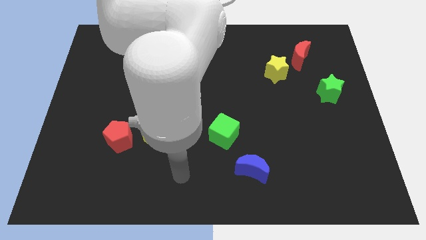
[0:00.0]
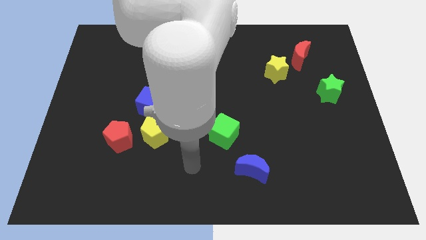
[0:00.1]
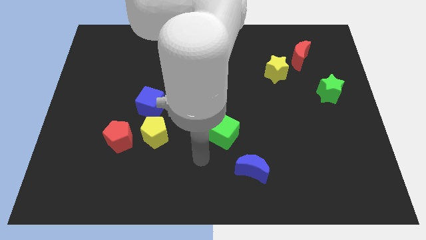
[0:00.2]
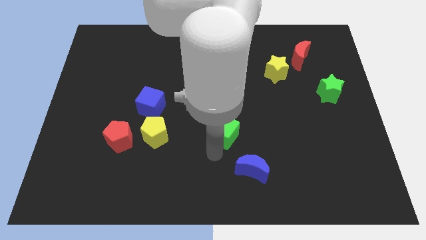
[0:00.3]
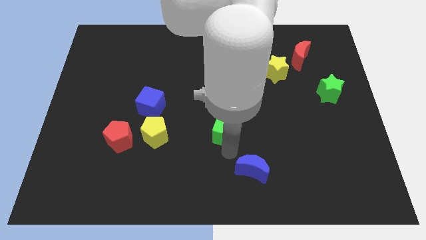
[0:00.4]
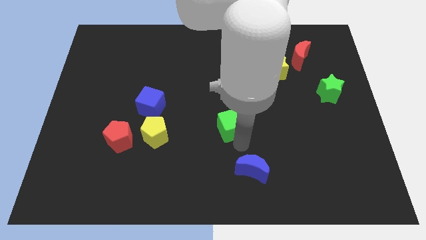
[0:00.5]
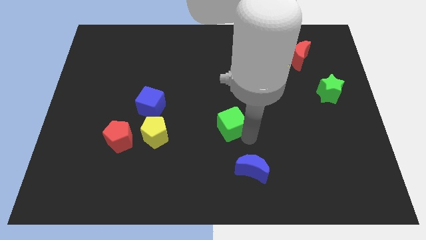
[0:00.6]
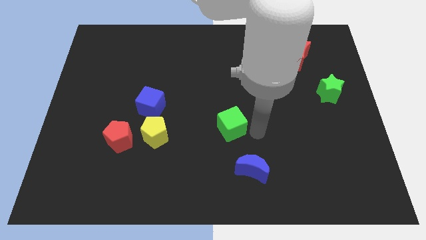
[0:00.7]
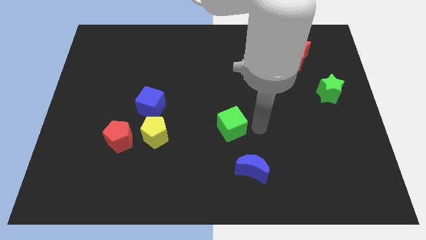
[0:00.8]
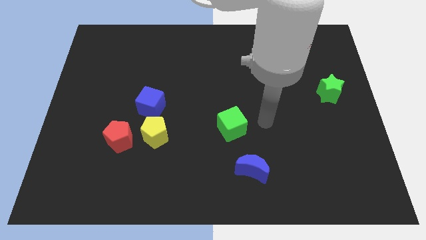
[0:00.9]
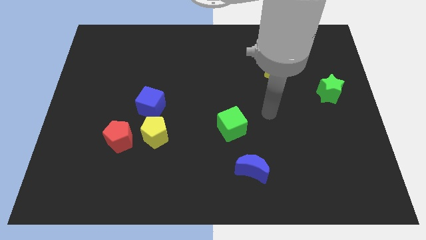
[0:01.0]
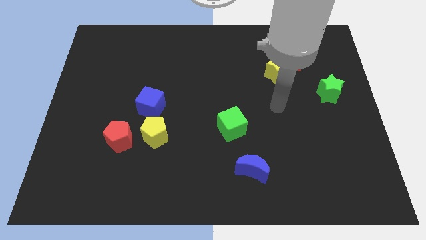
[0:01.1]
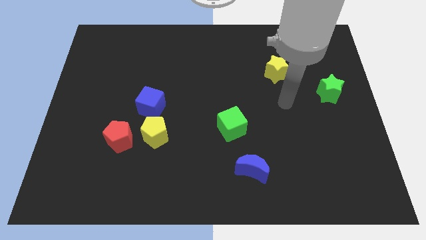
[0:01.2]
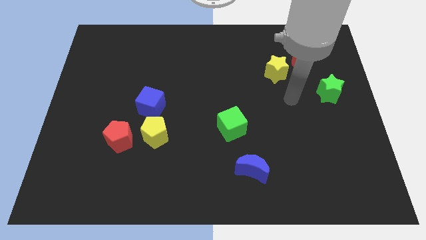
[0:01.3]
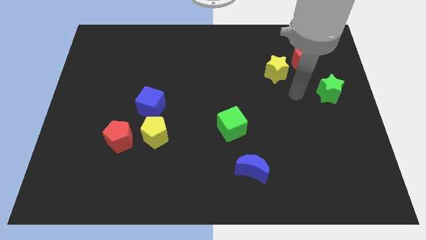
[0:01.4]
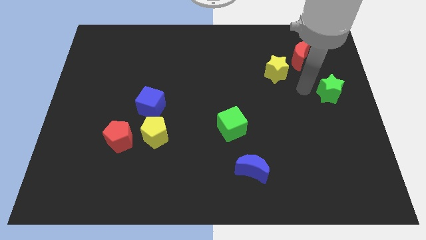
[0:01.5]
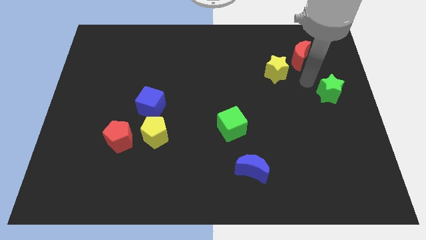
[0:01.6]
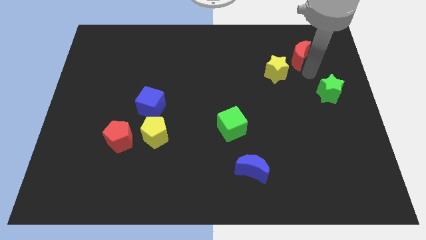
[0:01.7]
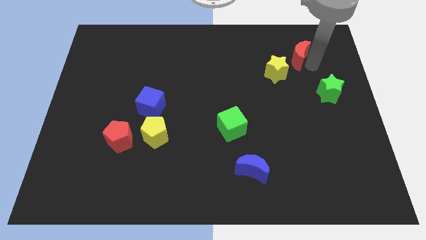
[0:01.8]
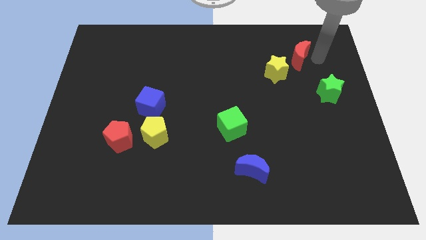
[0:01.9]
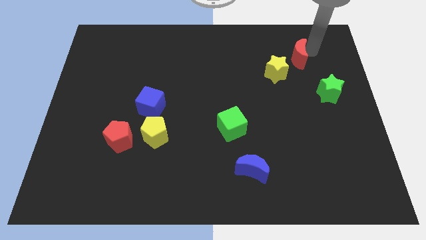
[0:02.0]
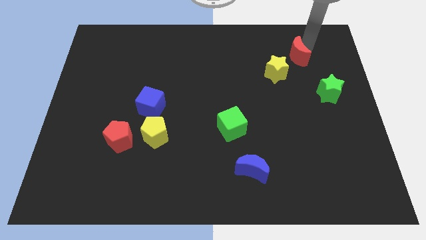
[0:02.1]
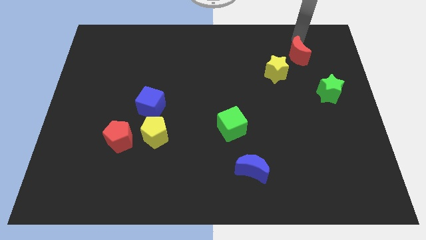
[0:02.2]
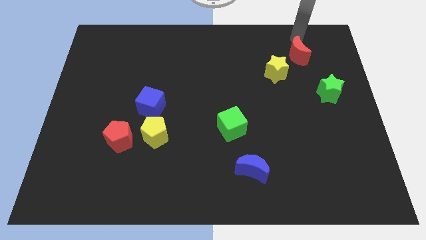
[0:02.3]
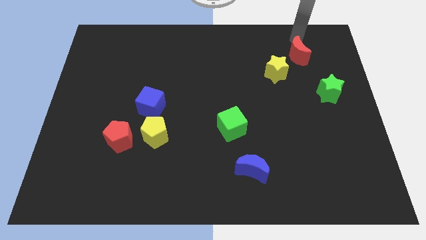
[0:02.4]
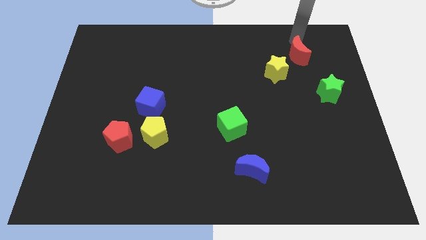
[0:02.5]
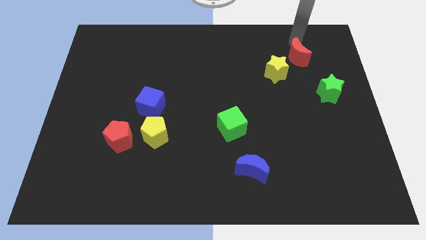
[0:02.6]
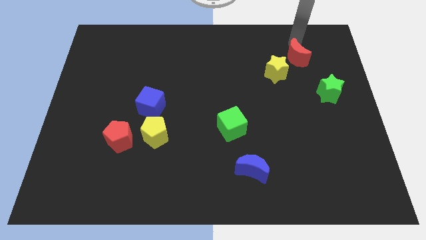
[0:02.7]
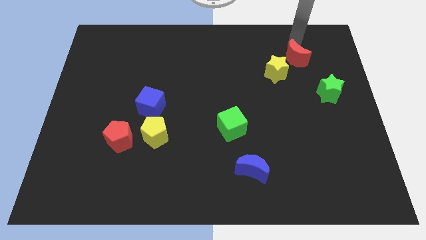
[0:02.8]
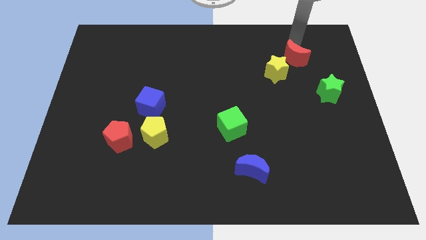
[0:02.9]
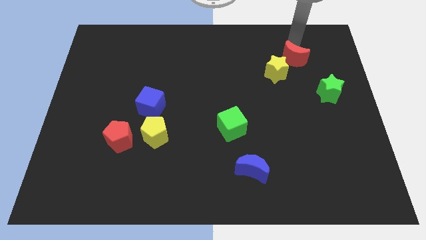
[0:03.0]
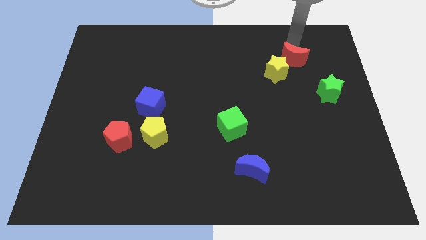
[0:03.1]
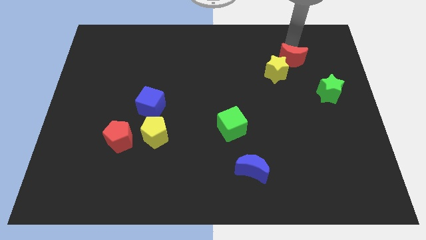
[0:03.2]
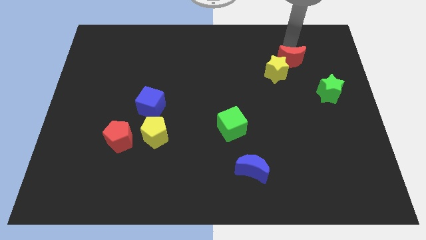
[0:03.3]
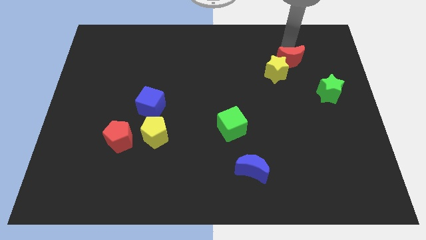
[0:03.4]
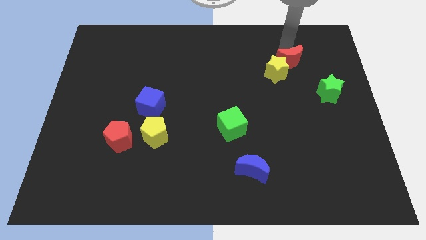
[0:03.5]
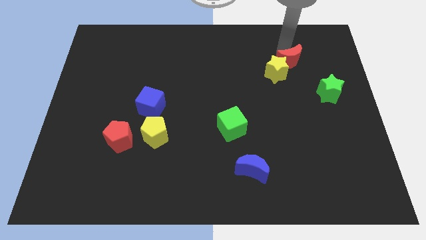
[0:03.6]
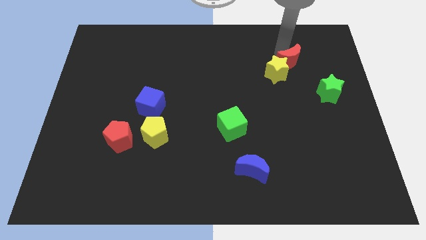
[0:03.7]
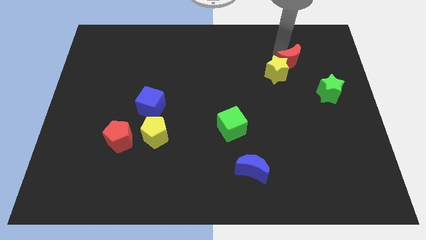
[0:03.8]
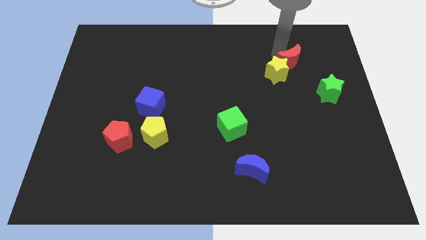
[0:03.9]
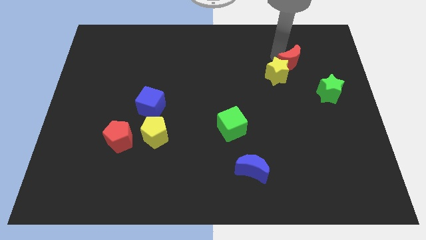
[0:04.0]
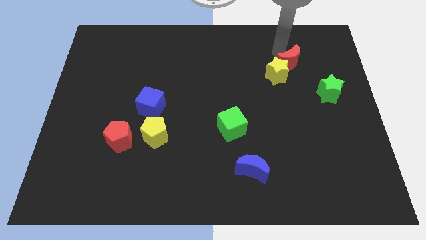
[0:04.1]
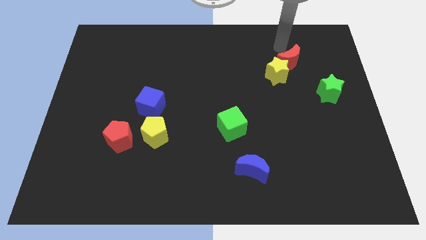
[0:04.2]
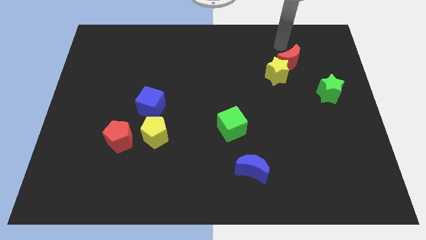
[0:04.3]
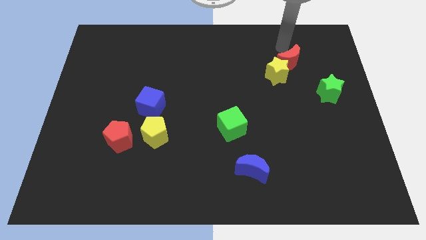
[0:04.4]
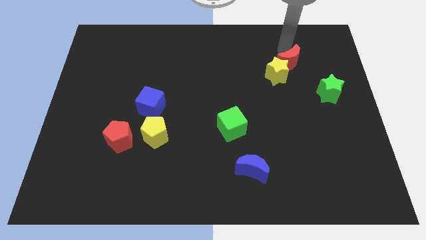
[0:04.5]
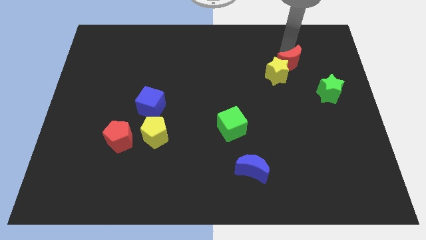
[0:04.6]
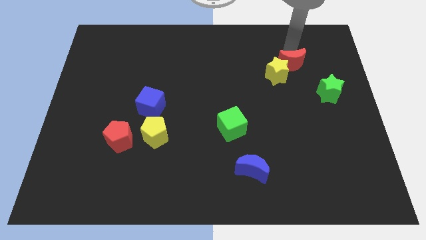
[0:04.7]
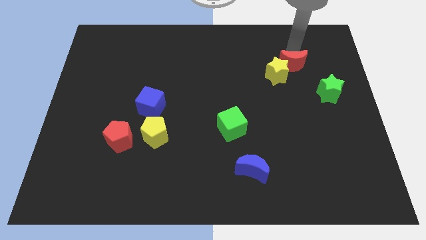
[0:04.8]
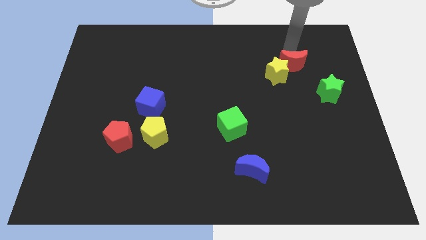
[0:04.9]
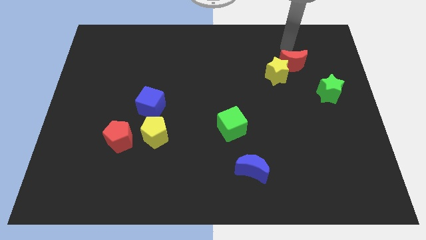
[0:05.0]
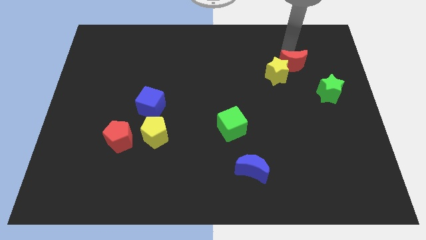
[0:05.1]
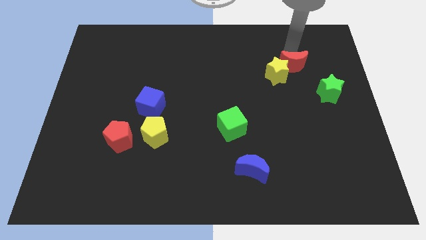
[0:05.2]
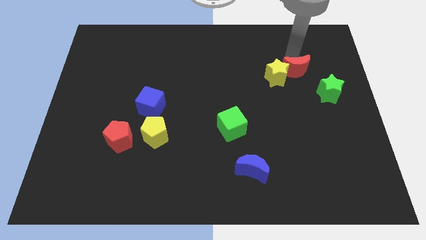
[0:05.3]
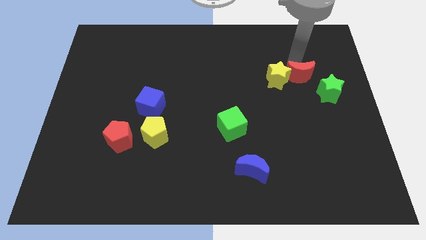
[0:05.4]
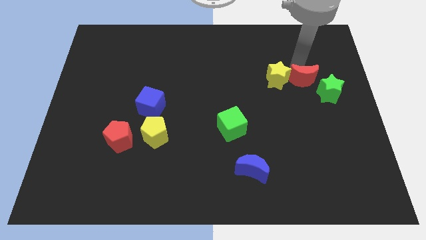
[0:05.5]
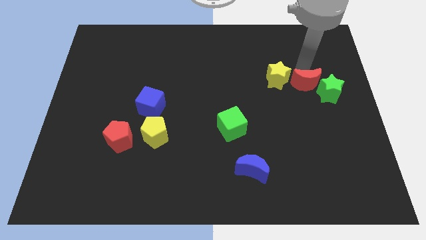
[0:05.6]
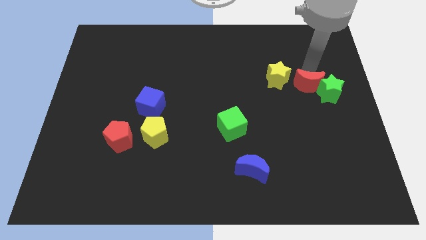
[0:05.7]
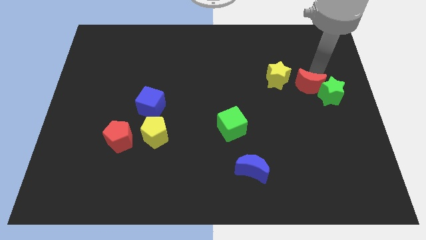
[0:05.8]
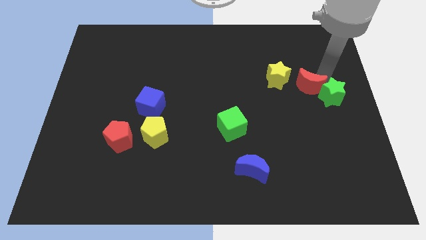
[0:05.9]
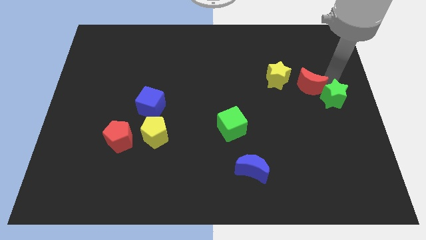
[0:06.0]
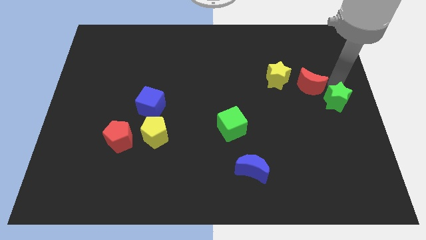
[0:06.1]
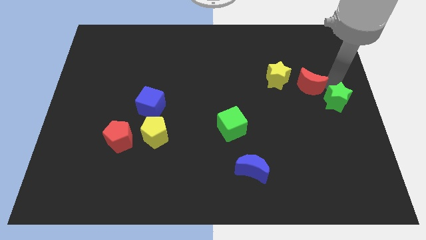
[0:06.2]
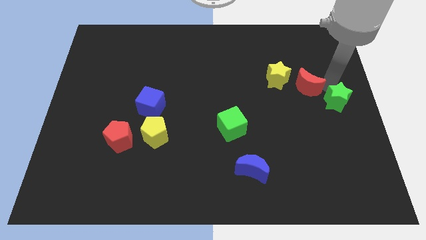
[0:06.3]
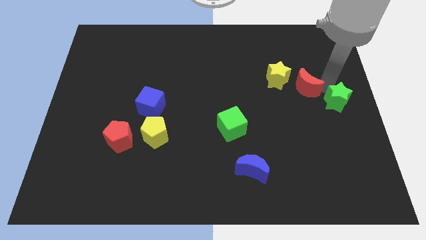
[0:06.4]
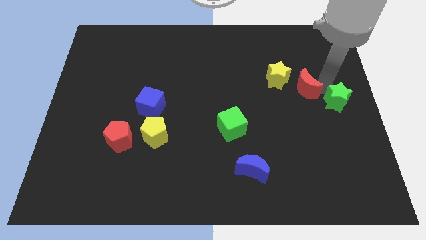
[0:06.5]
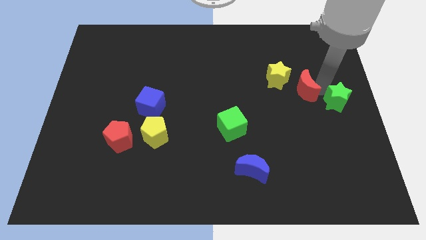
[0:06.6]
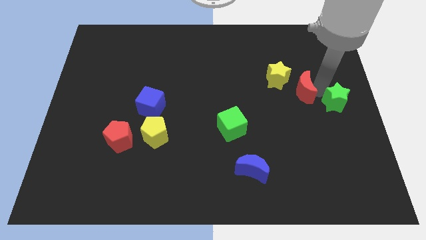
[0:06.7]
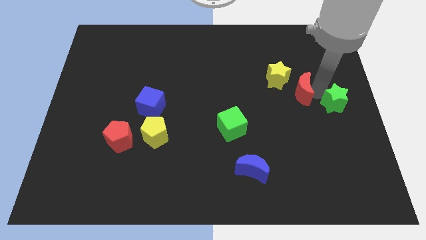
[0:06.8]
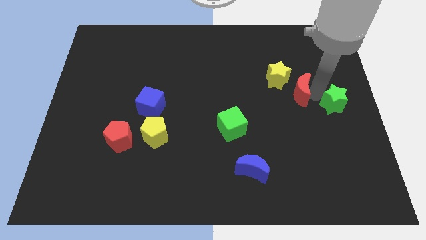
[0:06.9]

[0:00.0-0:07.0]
slide the red moon down and then to the left slightly

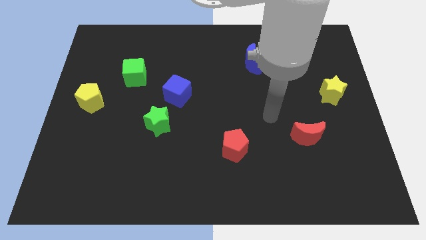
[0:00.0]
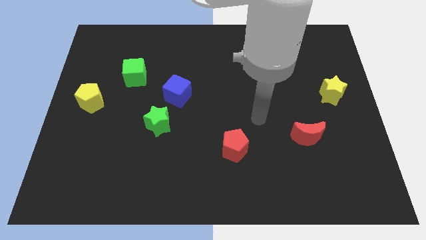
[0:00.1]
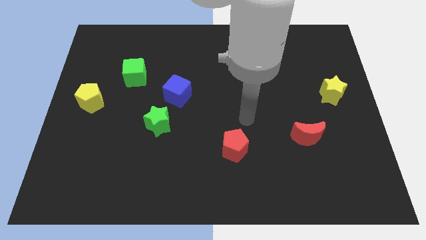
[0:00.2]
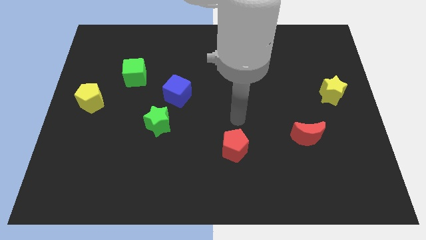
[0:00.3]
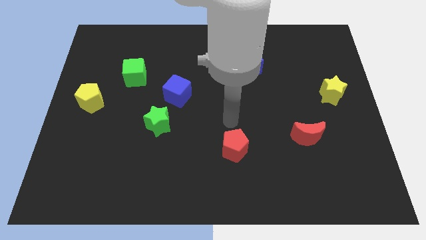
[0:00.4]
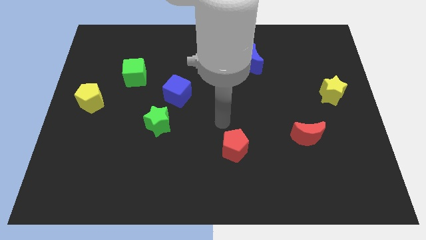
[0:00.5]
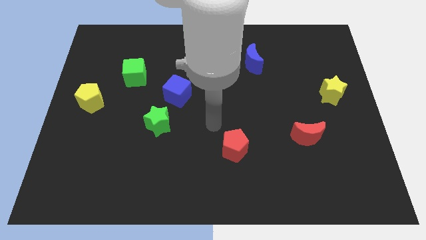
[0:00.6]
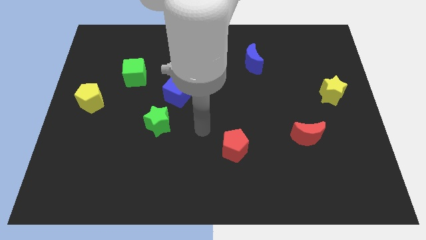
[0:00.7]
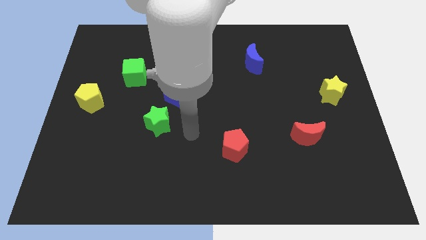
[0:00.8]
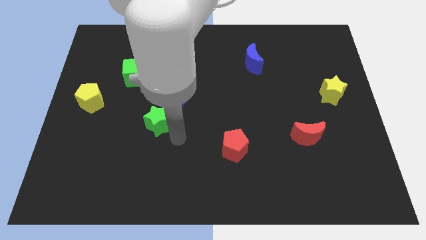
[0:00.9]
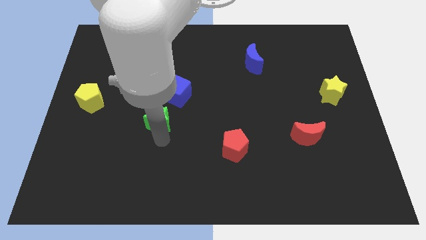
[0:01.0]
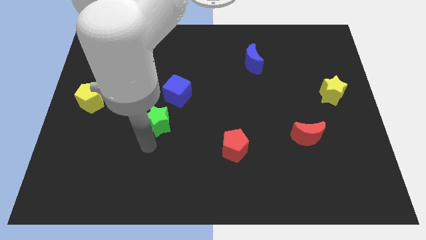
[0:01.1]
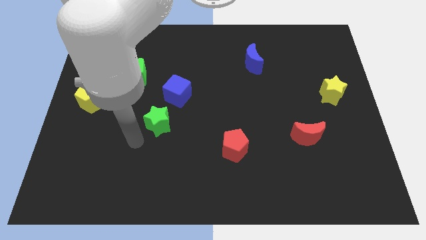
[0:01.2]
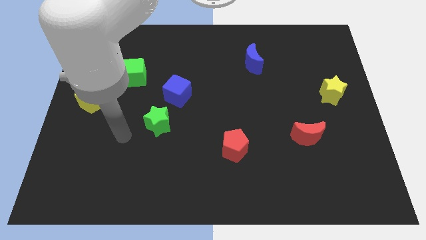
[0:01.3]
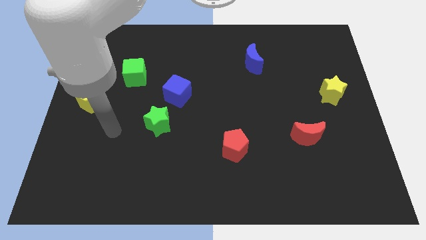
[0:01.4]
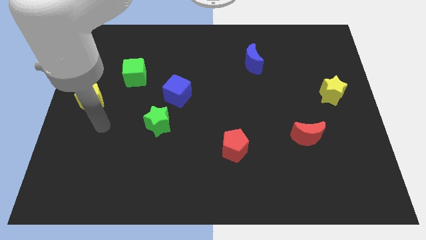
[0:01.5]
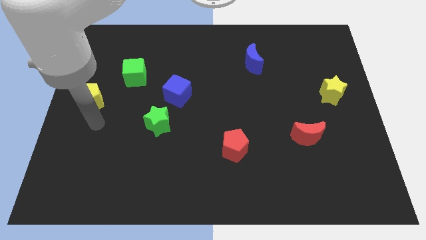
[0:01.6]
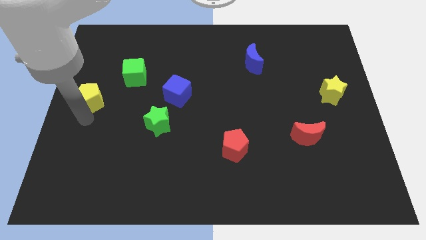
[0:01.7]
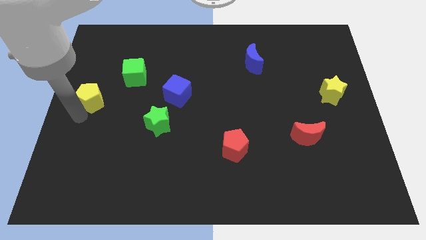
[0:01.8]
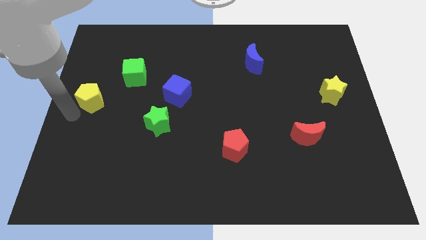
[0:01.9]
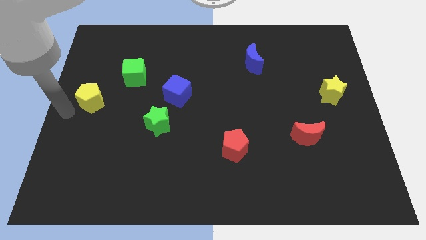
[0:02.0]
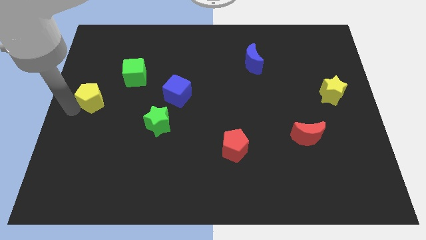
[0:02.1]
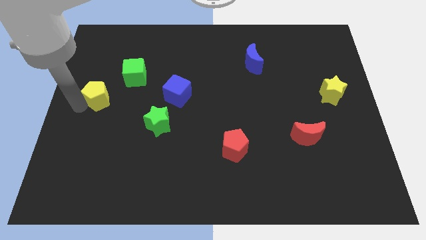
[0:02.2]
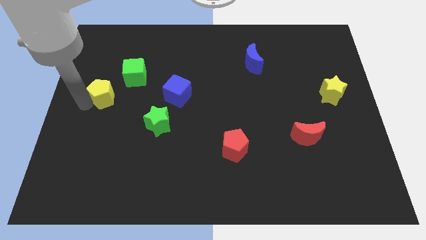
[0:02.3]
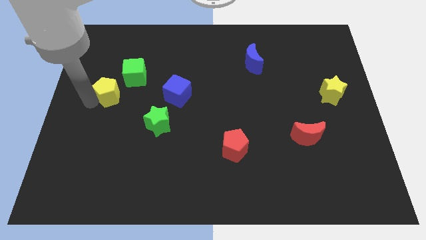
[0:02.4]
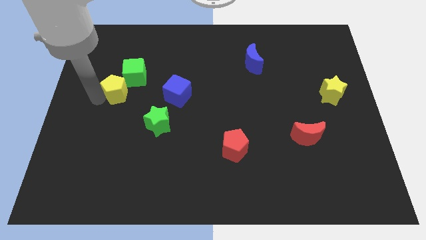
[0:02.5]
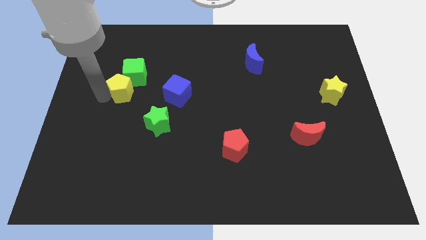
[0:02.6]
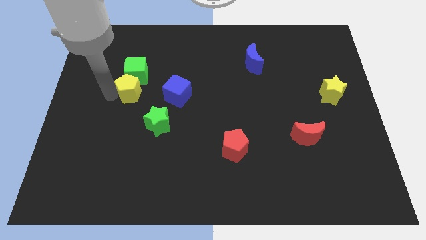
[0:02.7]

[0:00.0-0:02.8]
slightly push the yellow pentagon up and then right
